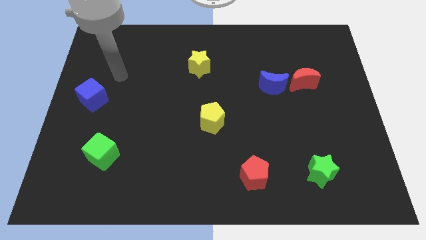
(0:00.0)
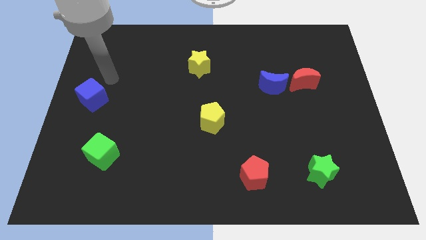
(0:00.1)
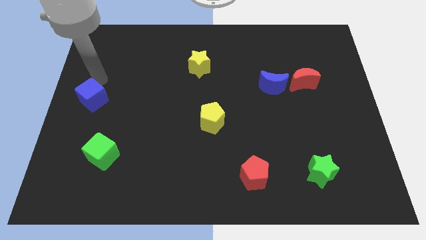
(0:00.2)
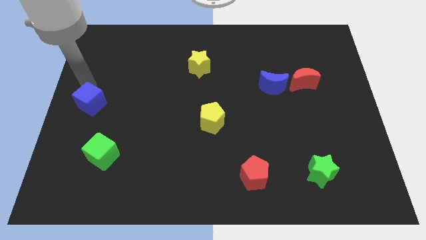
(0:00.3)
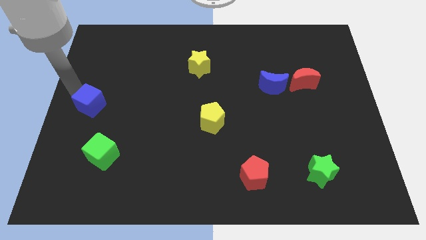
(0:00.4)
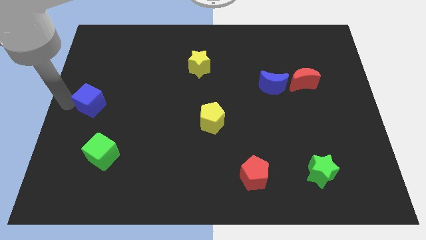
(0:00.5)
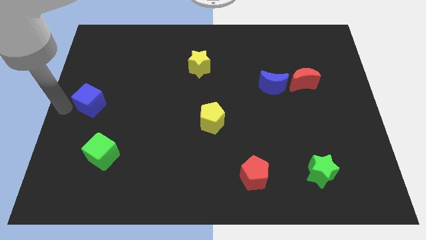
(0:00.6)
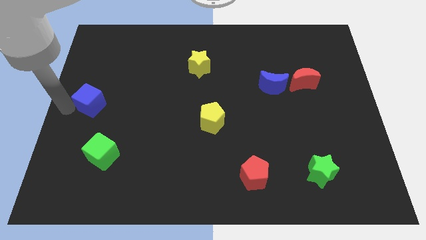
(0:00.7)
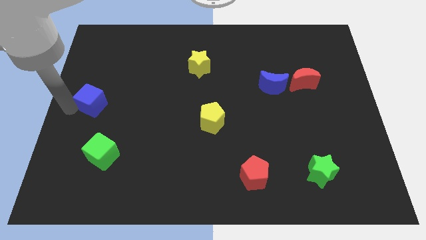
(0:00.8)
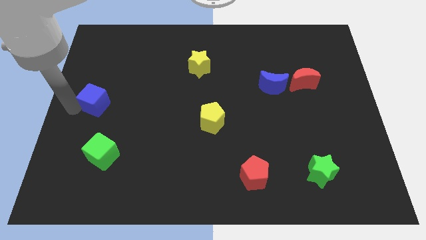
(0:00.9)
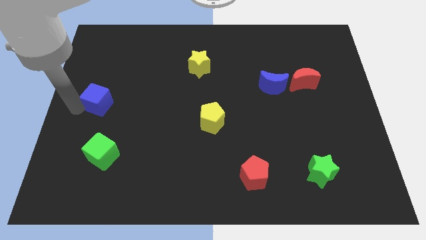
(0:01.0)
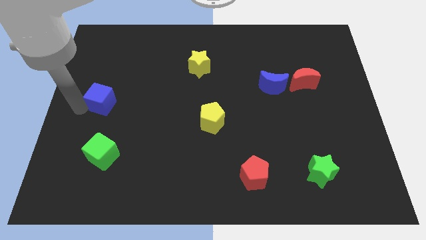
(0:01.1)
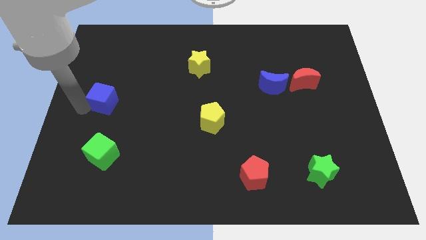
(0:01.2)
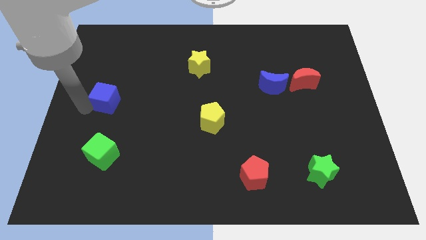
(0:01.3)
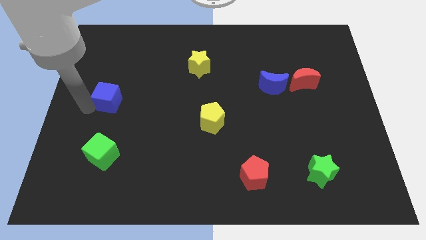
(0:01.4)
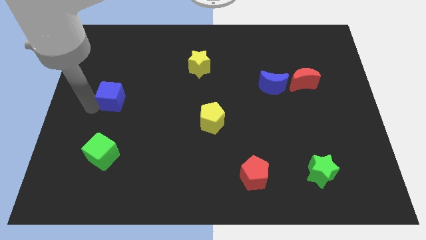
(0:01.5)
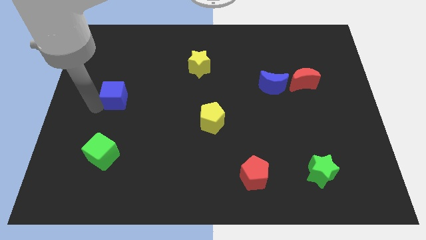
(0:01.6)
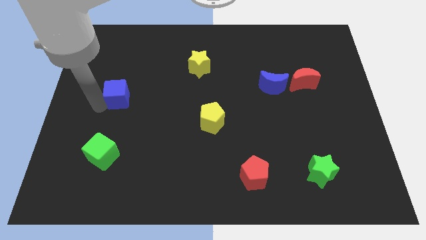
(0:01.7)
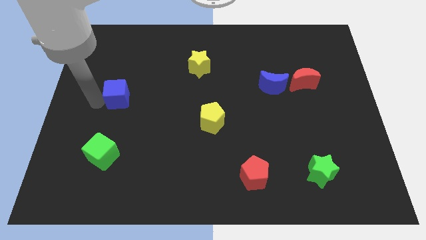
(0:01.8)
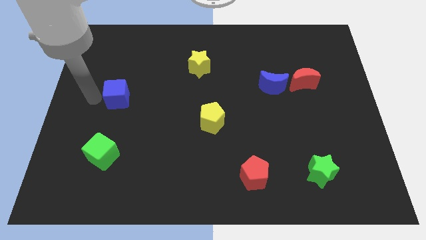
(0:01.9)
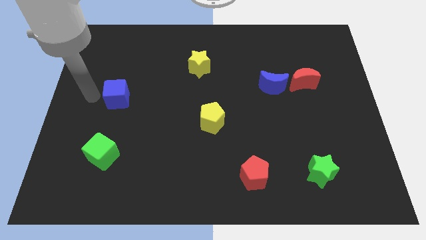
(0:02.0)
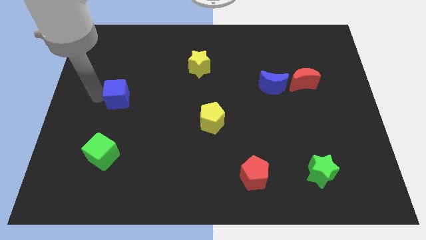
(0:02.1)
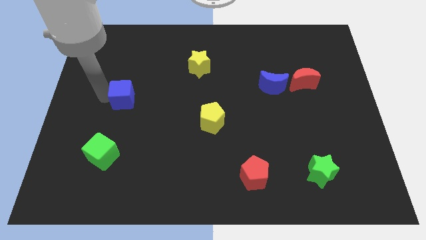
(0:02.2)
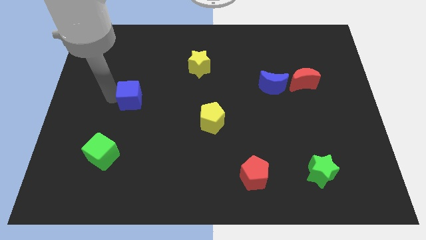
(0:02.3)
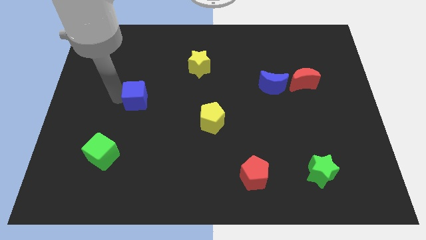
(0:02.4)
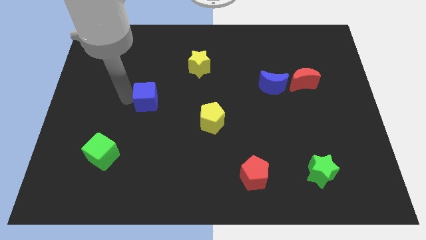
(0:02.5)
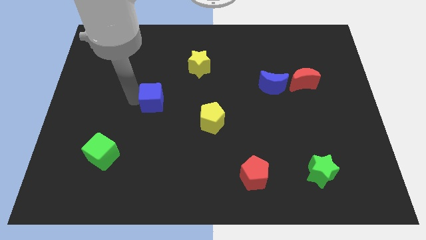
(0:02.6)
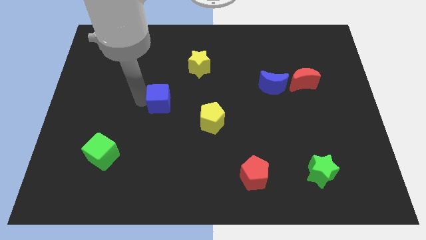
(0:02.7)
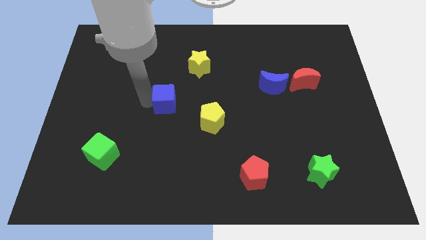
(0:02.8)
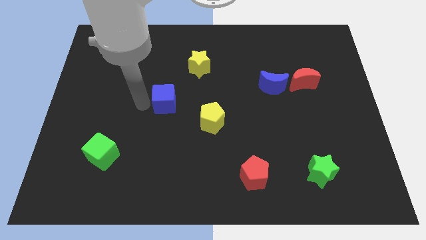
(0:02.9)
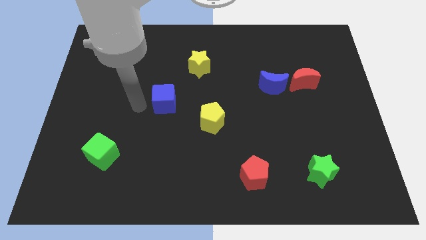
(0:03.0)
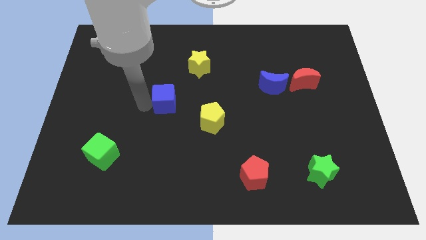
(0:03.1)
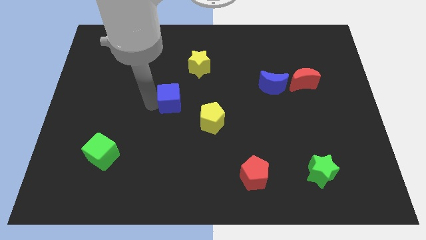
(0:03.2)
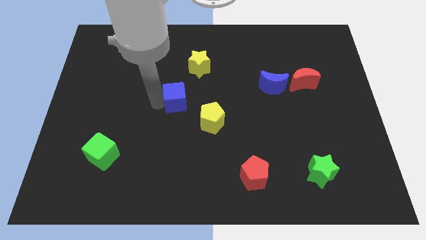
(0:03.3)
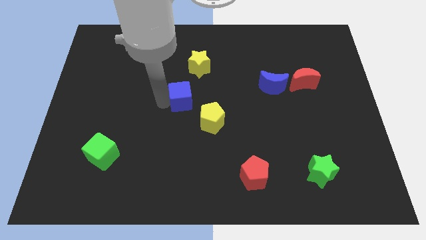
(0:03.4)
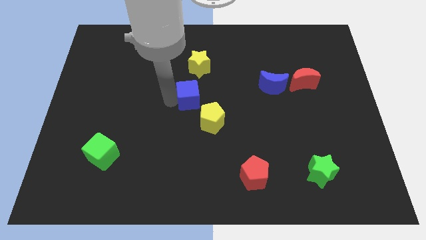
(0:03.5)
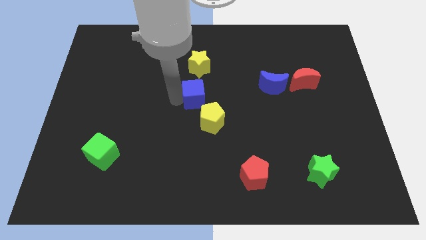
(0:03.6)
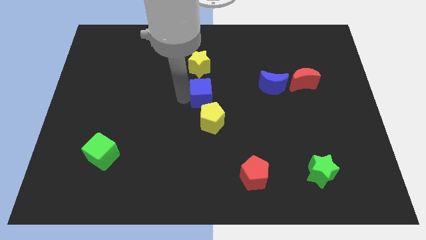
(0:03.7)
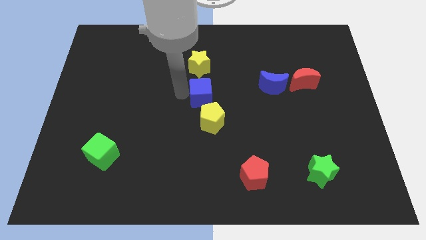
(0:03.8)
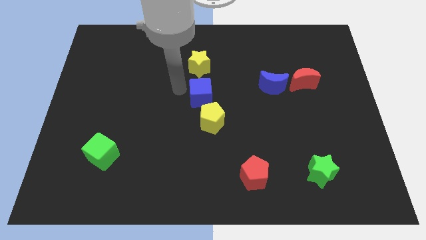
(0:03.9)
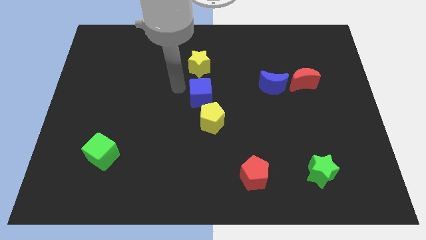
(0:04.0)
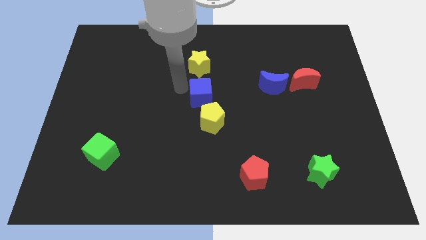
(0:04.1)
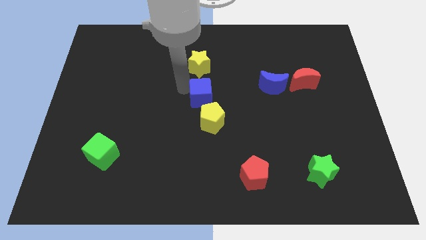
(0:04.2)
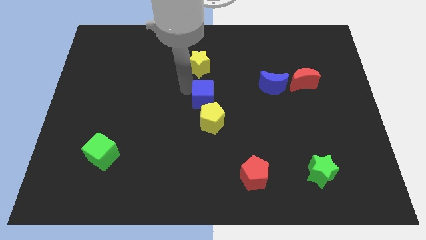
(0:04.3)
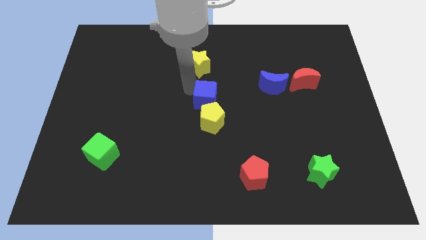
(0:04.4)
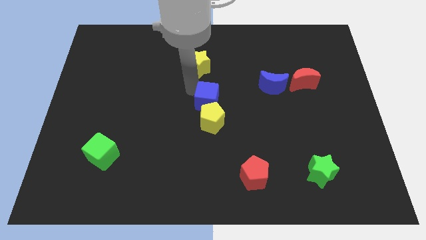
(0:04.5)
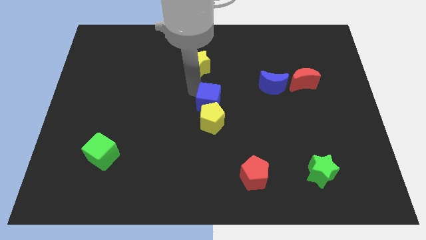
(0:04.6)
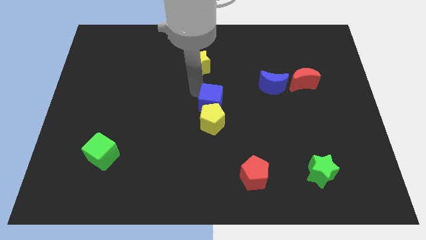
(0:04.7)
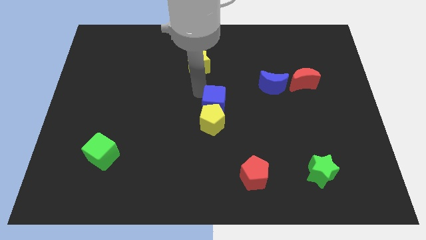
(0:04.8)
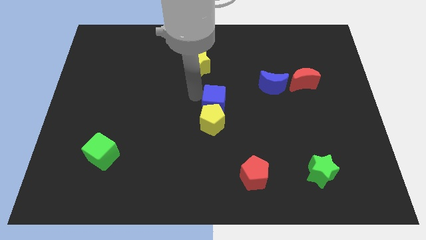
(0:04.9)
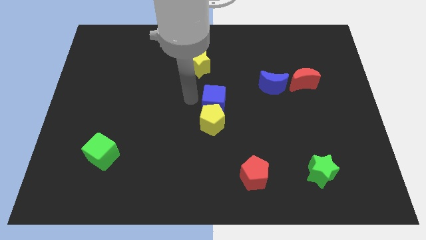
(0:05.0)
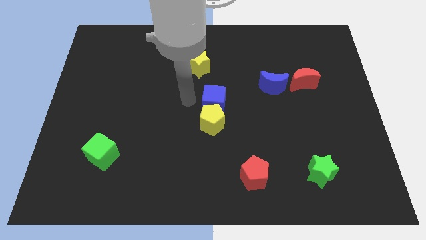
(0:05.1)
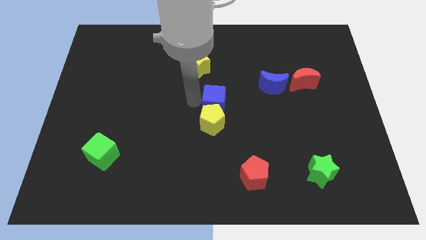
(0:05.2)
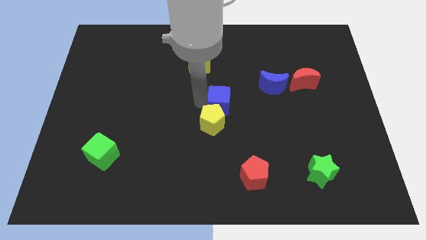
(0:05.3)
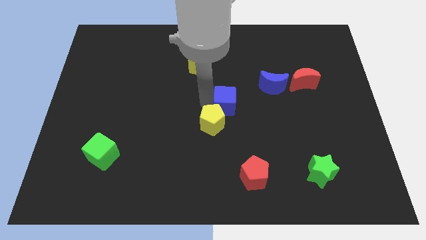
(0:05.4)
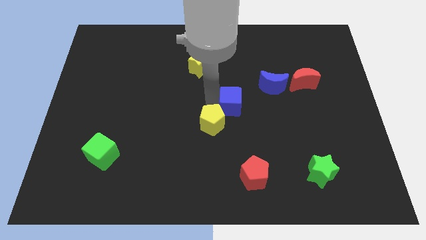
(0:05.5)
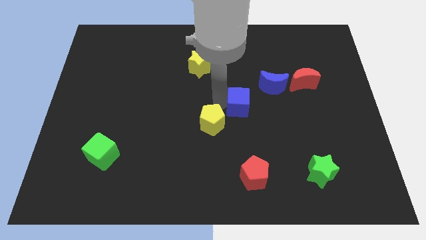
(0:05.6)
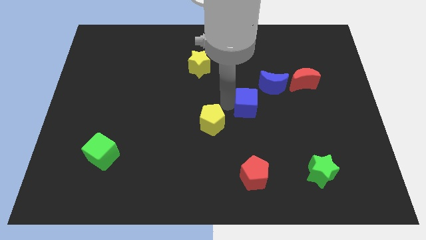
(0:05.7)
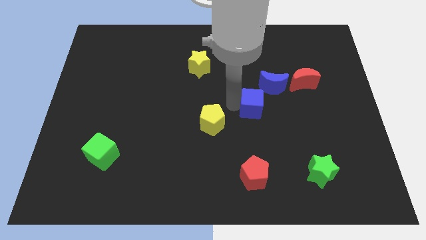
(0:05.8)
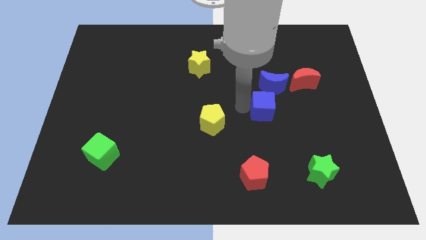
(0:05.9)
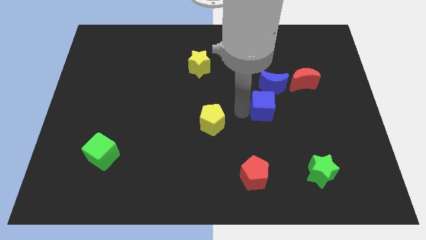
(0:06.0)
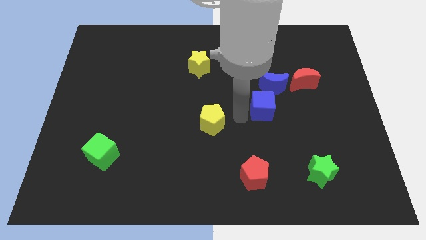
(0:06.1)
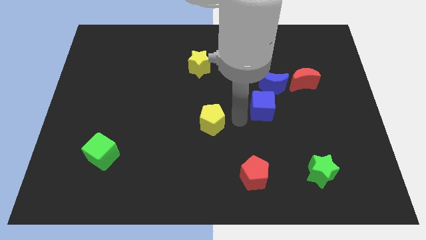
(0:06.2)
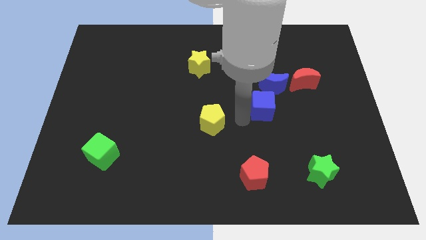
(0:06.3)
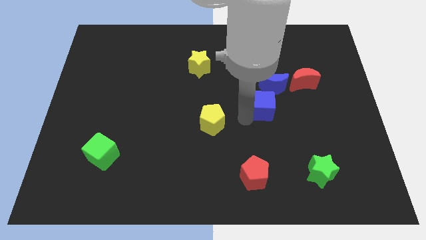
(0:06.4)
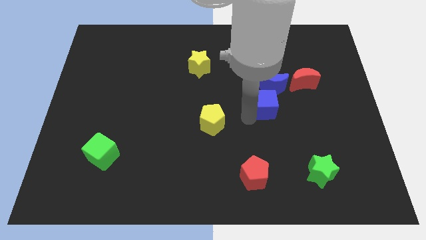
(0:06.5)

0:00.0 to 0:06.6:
push the blue cube to the bottom left of the red moon
